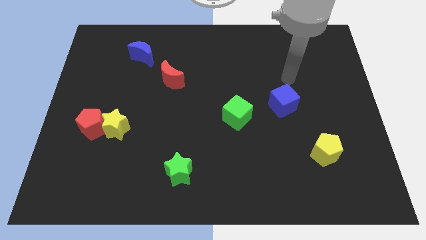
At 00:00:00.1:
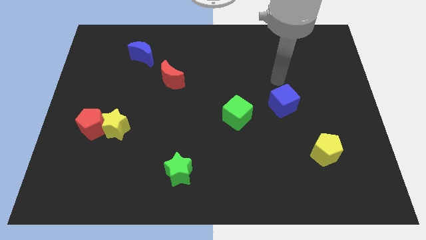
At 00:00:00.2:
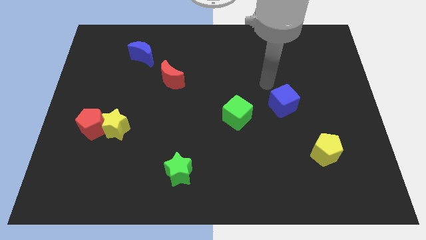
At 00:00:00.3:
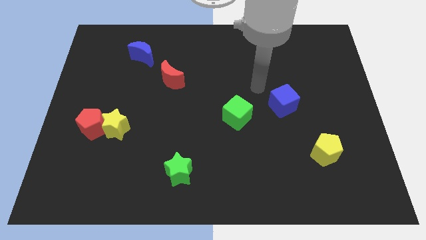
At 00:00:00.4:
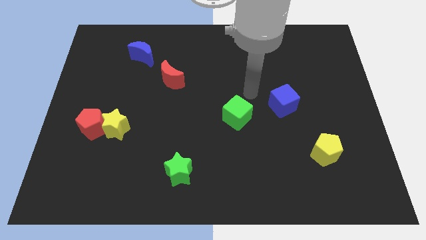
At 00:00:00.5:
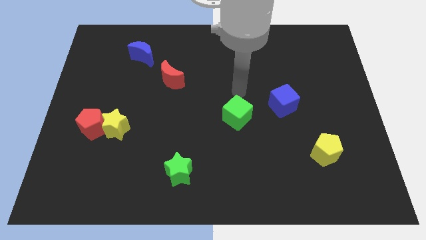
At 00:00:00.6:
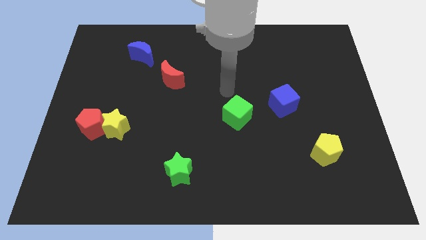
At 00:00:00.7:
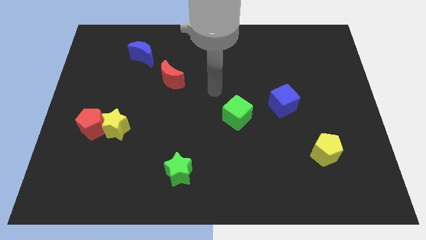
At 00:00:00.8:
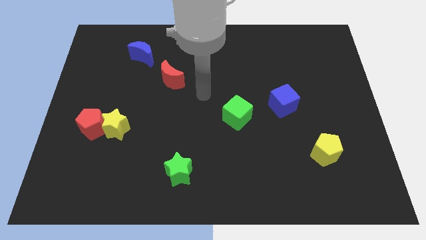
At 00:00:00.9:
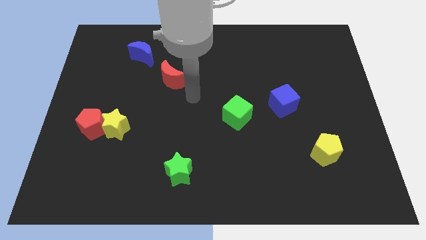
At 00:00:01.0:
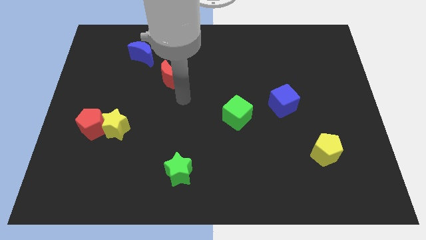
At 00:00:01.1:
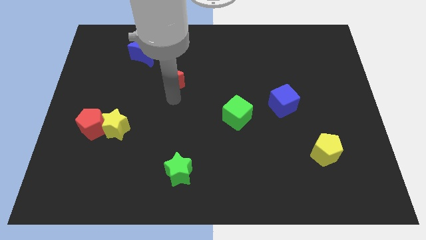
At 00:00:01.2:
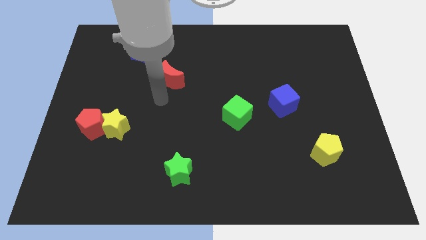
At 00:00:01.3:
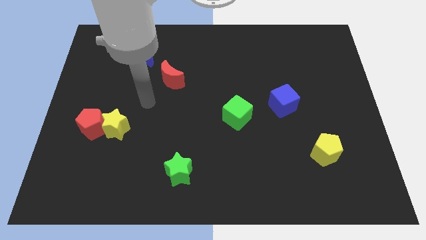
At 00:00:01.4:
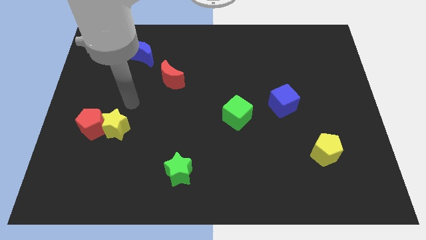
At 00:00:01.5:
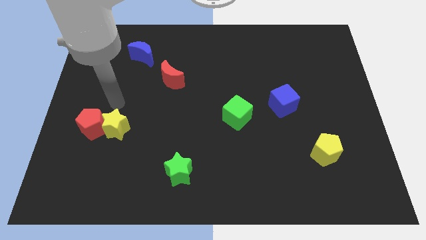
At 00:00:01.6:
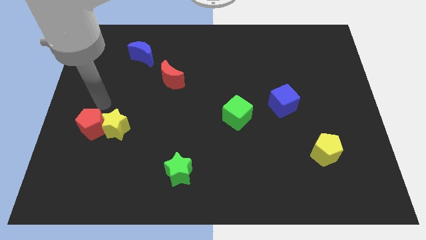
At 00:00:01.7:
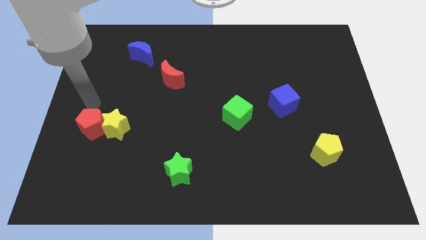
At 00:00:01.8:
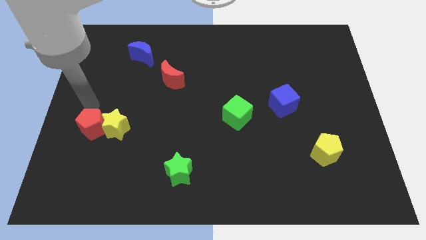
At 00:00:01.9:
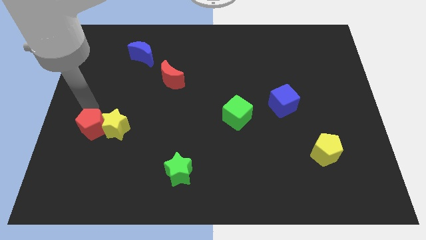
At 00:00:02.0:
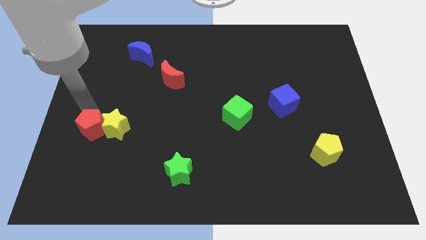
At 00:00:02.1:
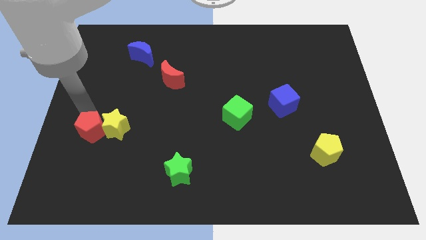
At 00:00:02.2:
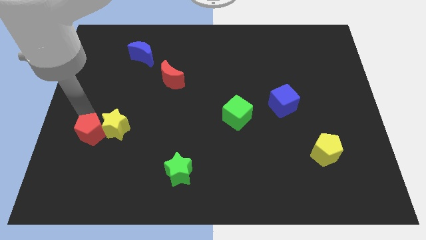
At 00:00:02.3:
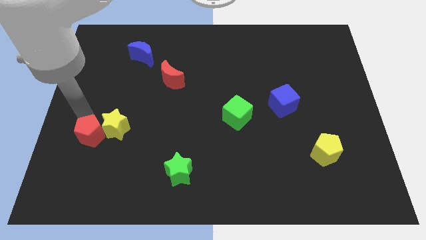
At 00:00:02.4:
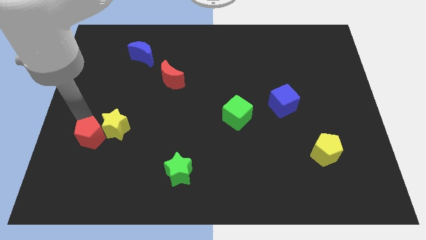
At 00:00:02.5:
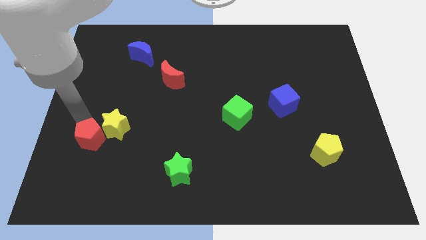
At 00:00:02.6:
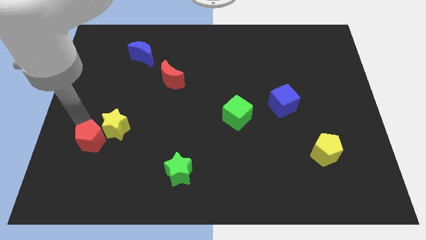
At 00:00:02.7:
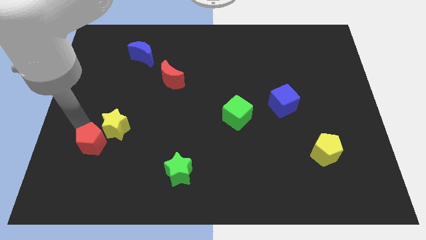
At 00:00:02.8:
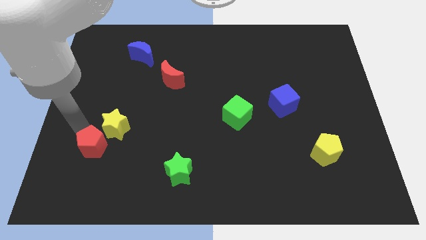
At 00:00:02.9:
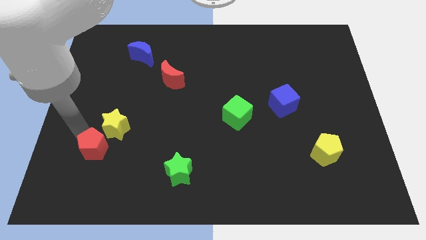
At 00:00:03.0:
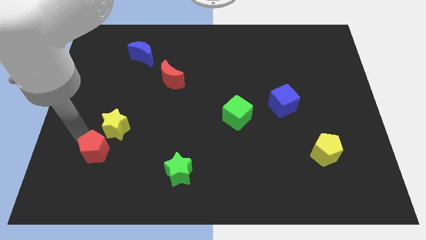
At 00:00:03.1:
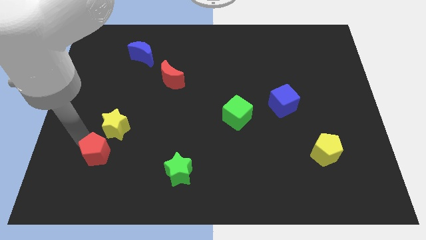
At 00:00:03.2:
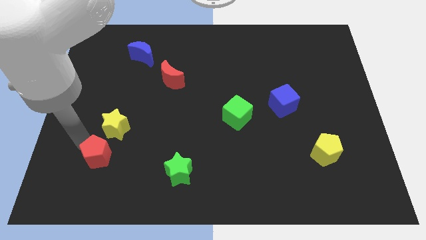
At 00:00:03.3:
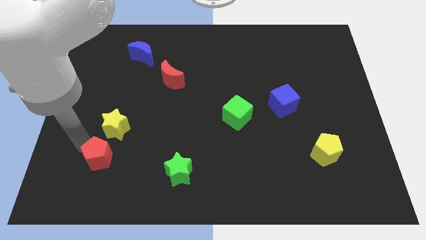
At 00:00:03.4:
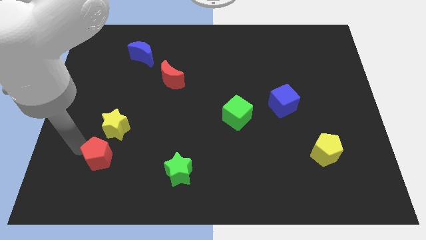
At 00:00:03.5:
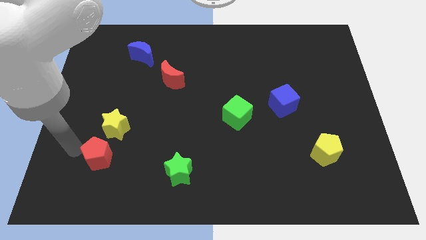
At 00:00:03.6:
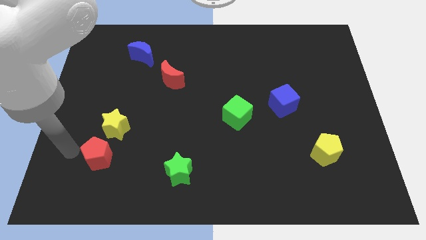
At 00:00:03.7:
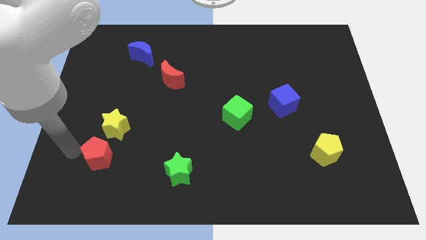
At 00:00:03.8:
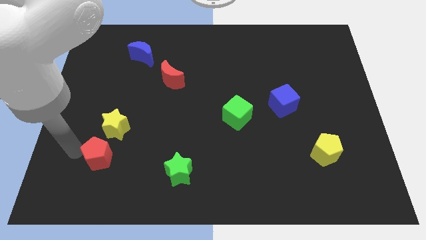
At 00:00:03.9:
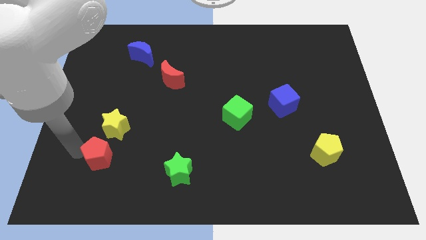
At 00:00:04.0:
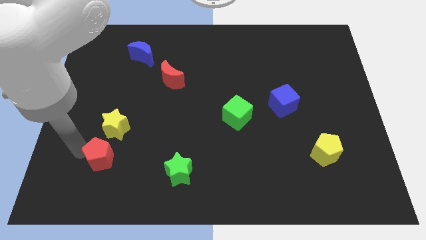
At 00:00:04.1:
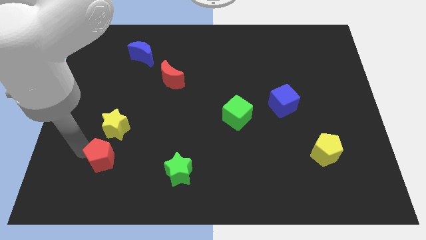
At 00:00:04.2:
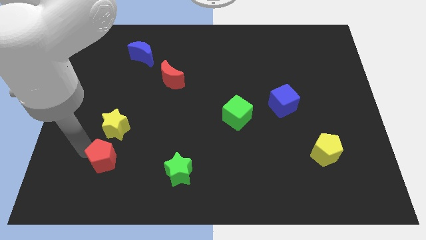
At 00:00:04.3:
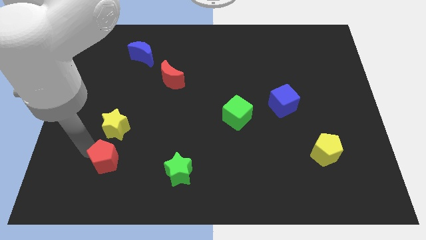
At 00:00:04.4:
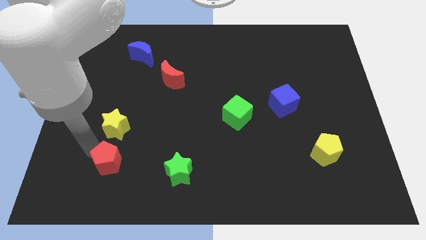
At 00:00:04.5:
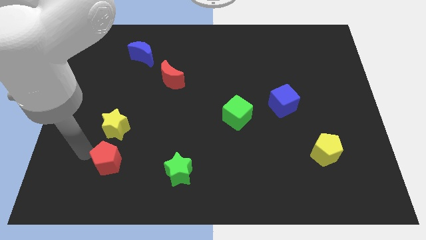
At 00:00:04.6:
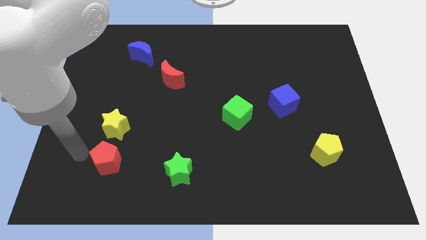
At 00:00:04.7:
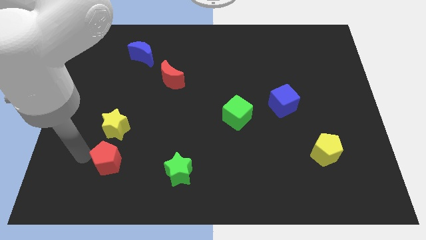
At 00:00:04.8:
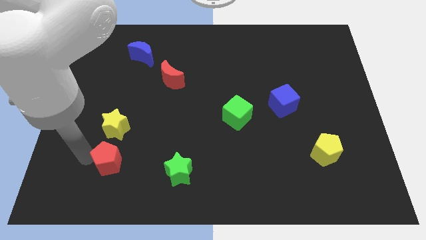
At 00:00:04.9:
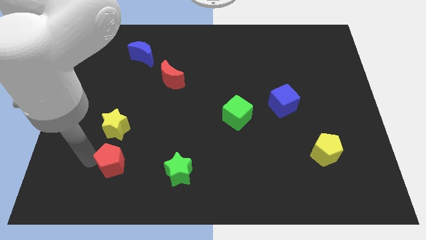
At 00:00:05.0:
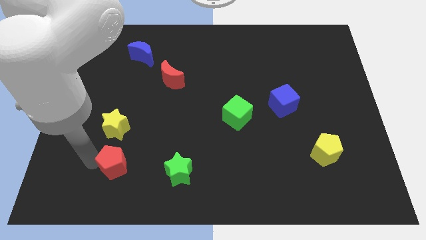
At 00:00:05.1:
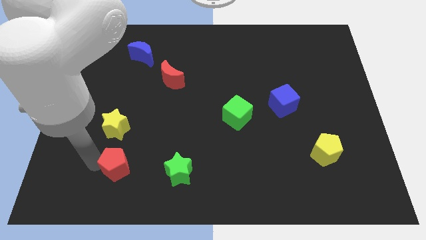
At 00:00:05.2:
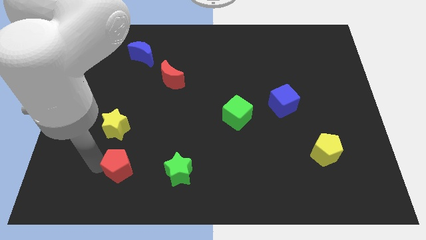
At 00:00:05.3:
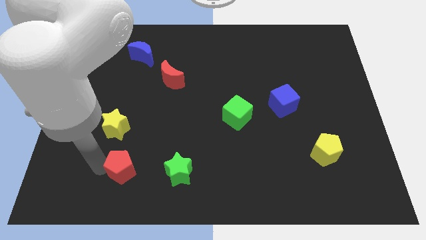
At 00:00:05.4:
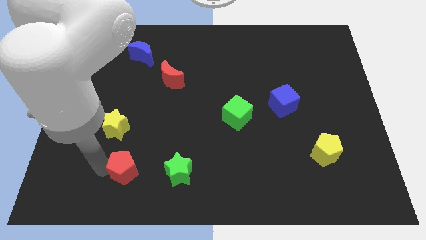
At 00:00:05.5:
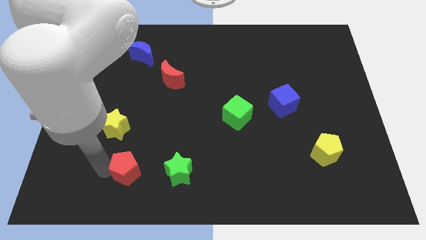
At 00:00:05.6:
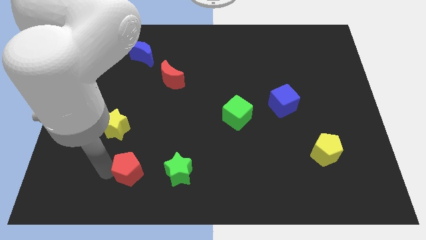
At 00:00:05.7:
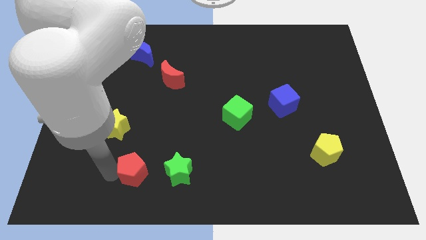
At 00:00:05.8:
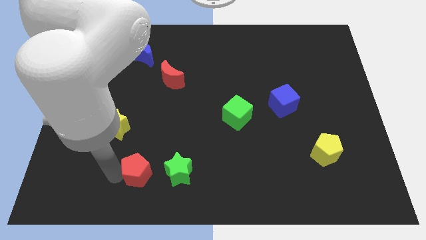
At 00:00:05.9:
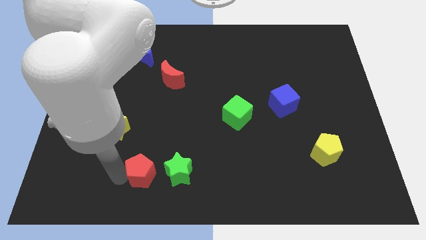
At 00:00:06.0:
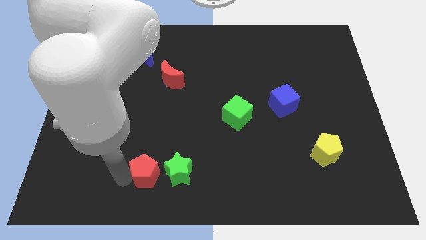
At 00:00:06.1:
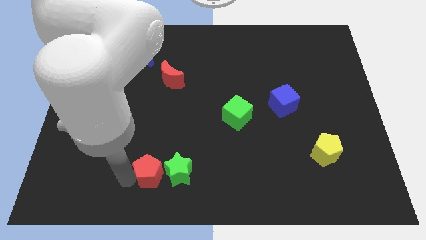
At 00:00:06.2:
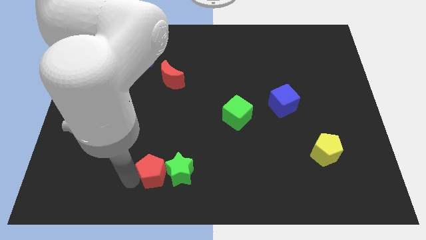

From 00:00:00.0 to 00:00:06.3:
slide the red pentagon close to the green star

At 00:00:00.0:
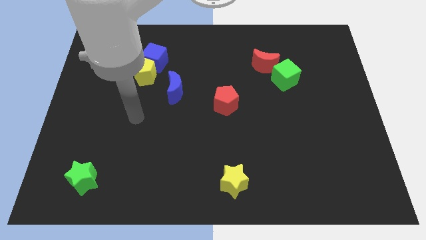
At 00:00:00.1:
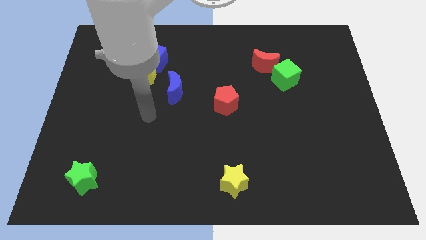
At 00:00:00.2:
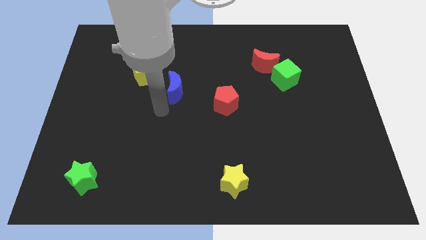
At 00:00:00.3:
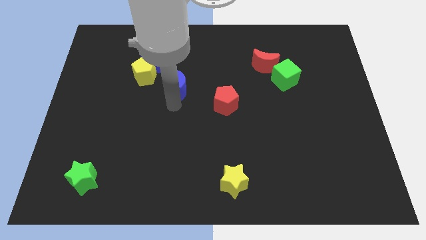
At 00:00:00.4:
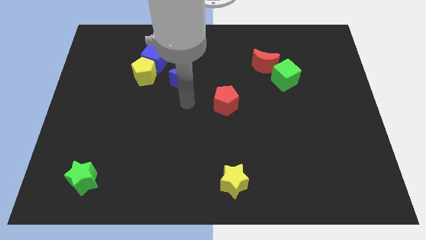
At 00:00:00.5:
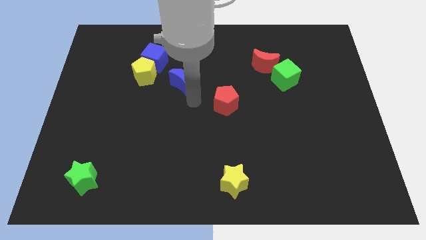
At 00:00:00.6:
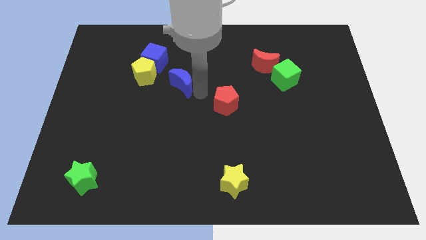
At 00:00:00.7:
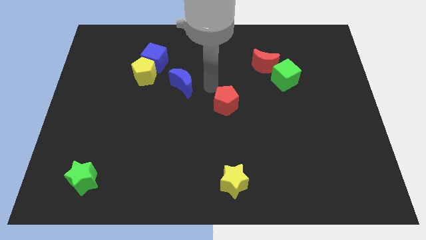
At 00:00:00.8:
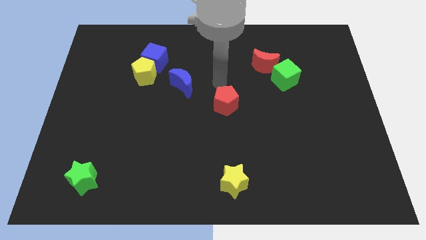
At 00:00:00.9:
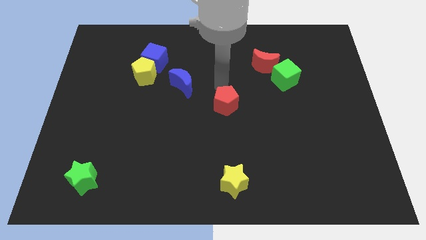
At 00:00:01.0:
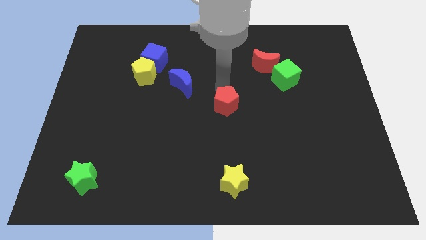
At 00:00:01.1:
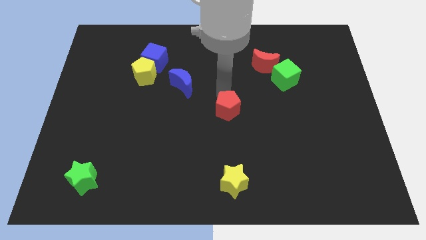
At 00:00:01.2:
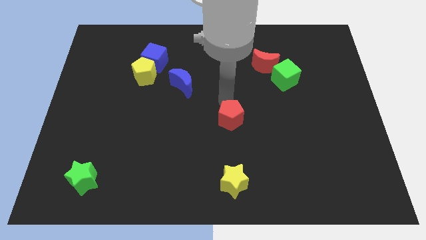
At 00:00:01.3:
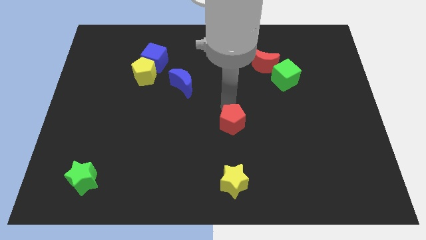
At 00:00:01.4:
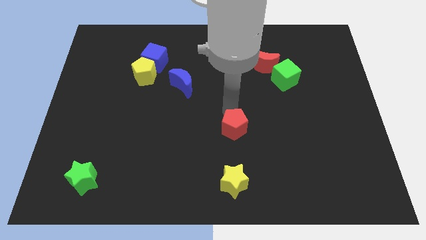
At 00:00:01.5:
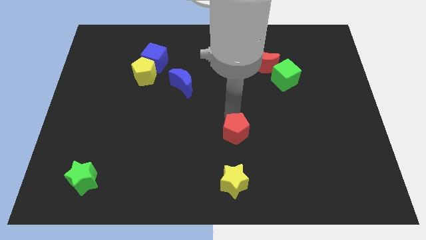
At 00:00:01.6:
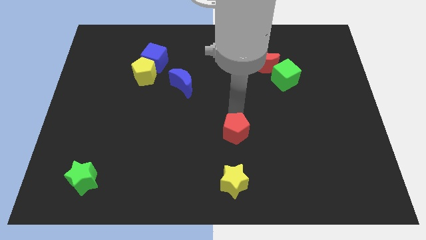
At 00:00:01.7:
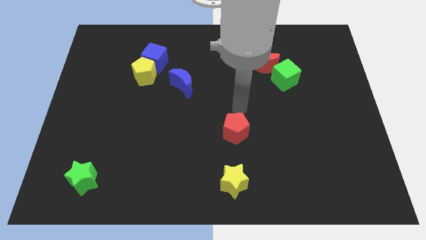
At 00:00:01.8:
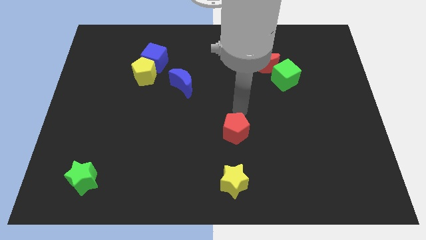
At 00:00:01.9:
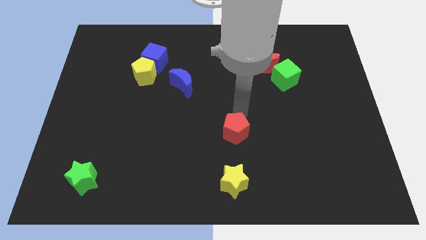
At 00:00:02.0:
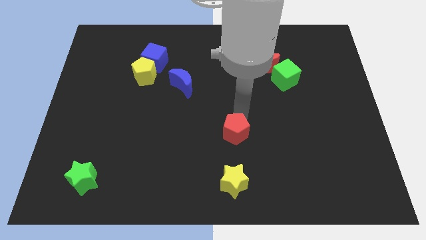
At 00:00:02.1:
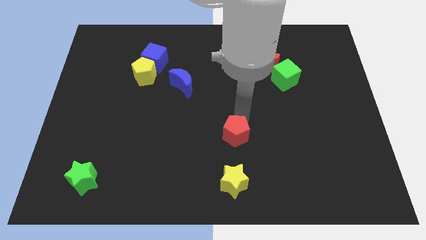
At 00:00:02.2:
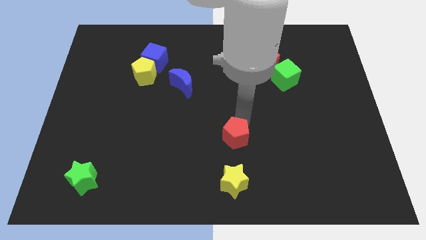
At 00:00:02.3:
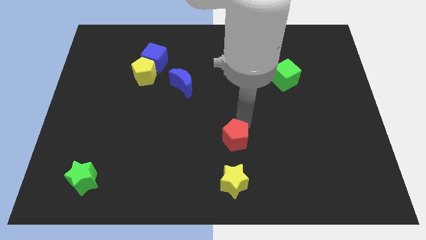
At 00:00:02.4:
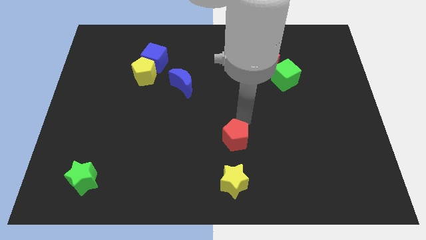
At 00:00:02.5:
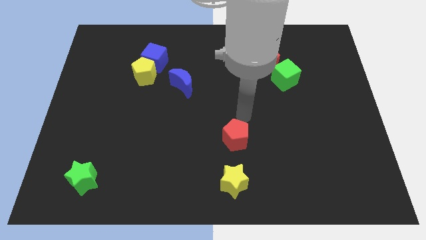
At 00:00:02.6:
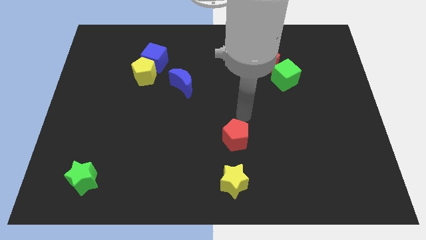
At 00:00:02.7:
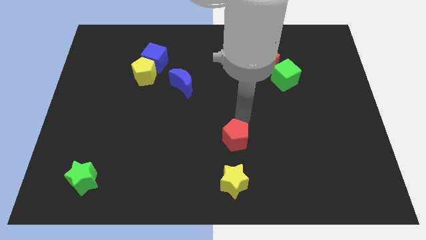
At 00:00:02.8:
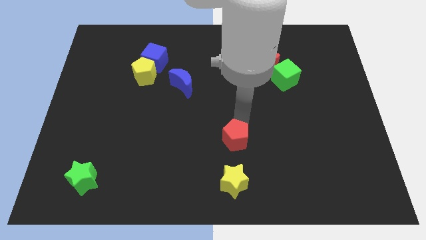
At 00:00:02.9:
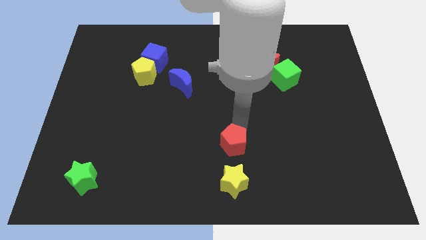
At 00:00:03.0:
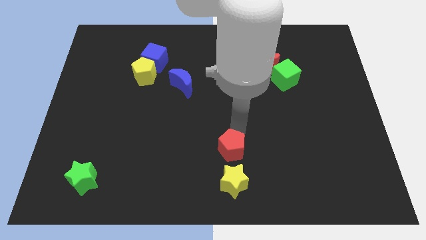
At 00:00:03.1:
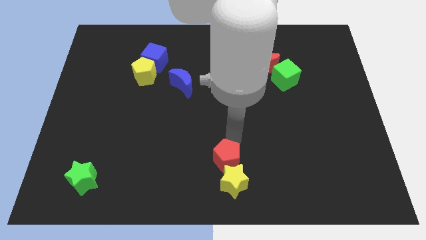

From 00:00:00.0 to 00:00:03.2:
push the red pentagon to the yellow star
